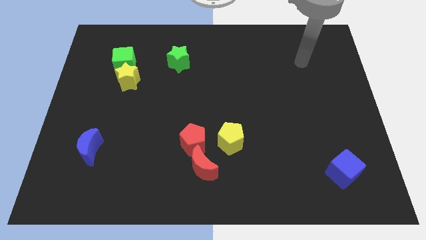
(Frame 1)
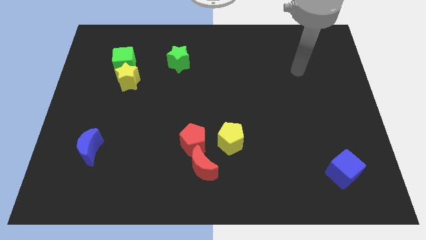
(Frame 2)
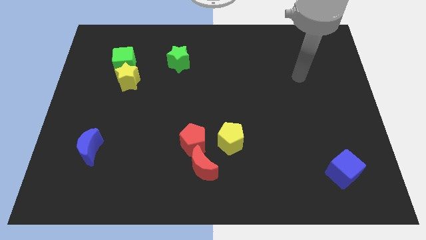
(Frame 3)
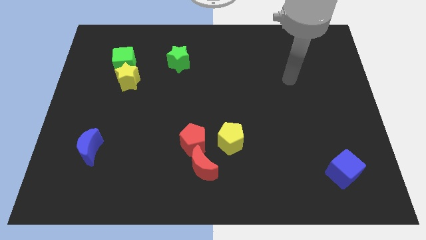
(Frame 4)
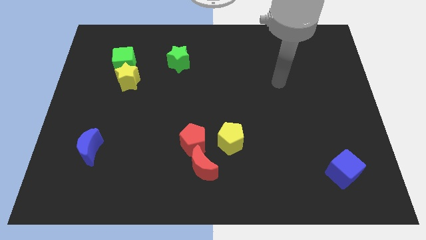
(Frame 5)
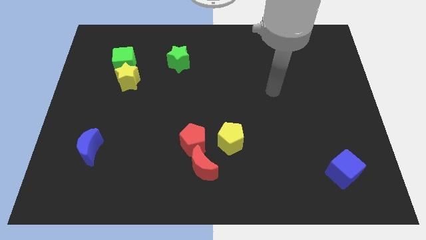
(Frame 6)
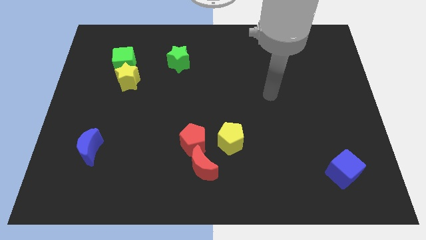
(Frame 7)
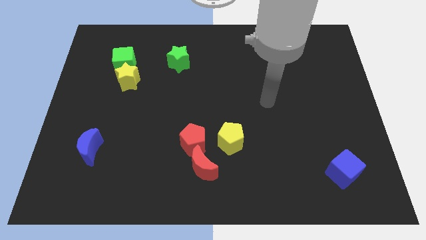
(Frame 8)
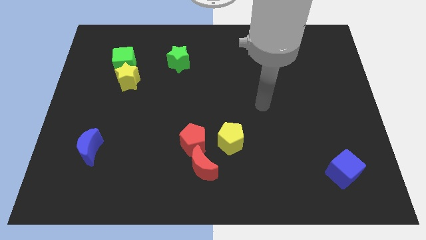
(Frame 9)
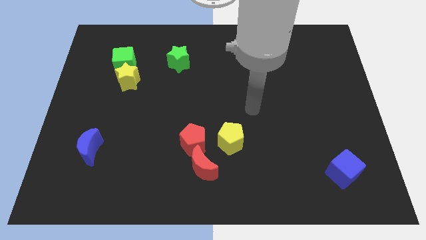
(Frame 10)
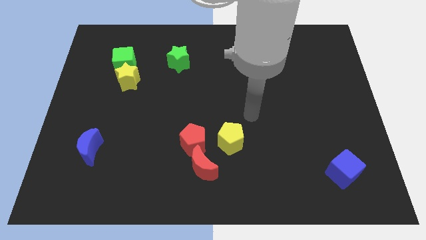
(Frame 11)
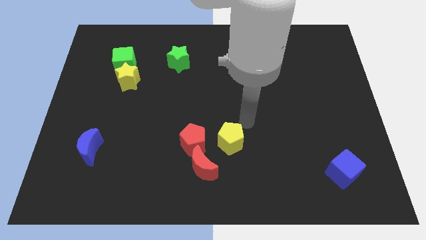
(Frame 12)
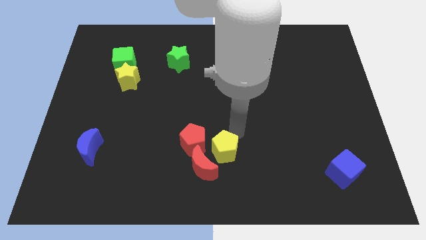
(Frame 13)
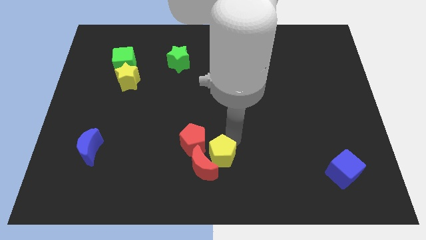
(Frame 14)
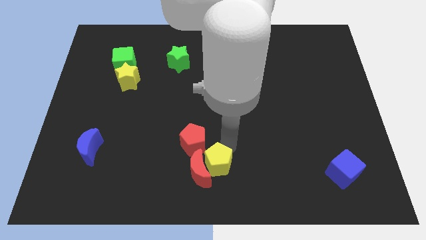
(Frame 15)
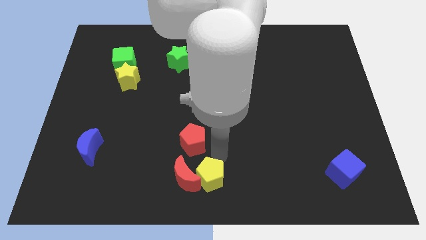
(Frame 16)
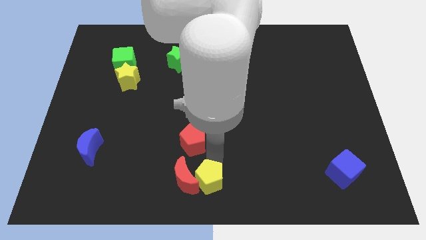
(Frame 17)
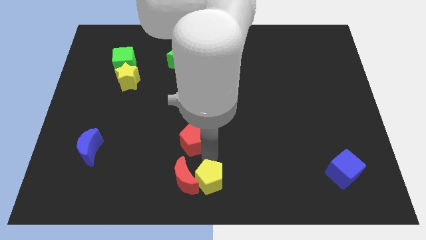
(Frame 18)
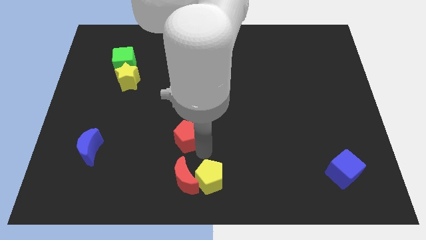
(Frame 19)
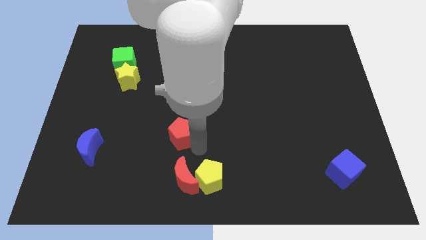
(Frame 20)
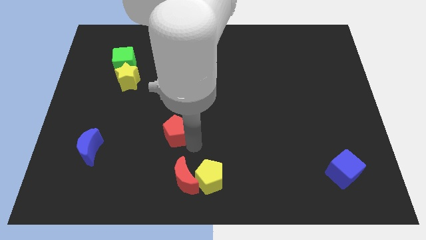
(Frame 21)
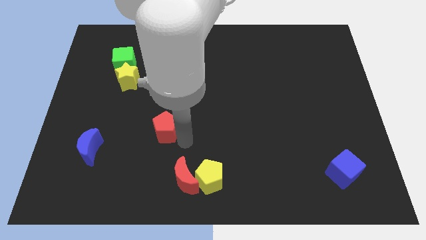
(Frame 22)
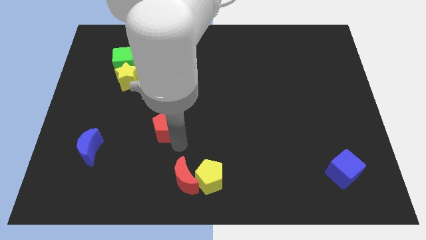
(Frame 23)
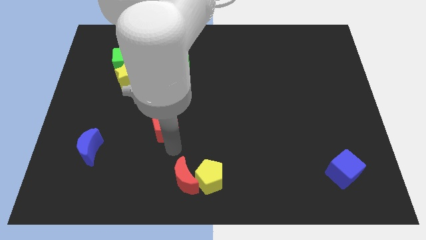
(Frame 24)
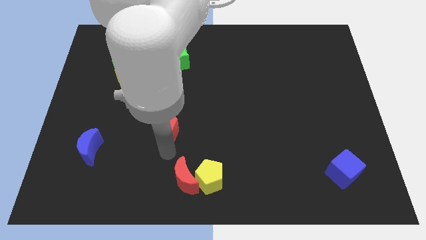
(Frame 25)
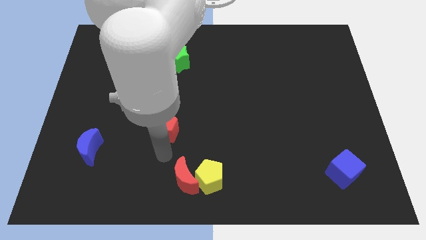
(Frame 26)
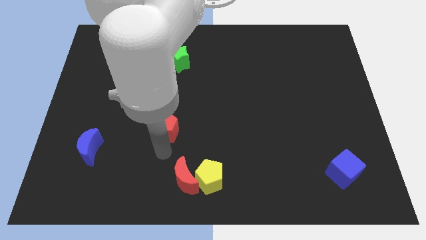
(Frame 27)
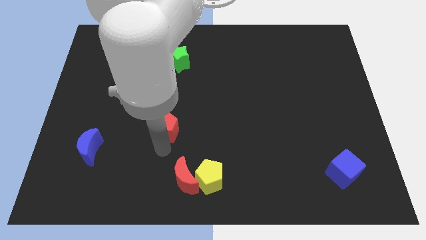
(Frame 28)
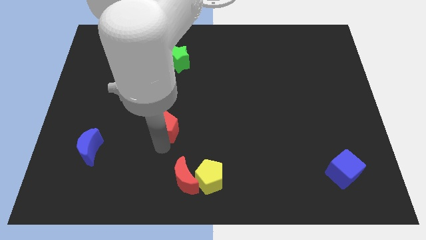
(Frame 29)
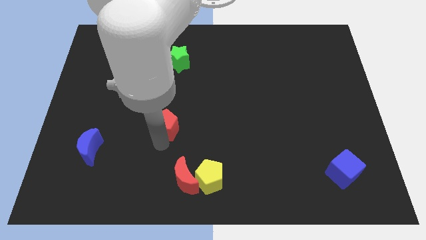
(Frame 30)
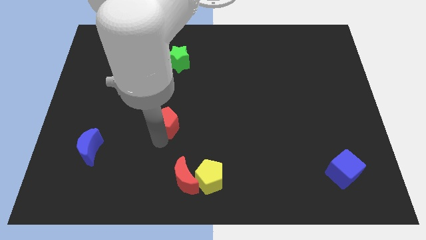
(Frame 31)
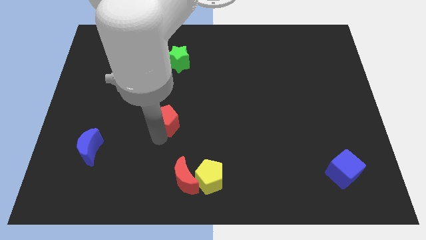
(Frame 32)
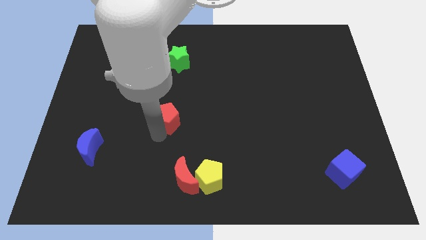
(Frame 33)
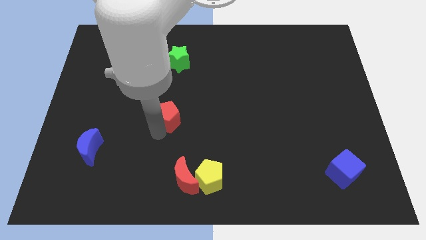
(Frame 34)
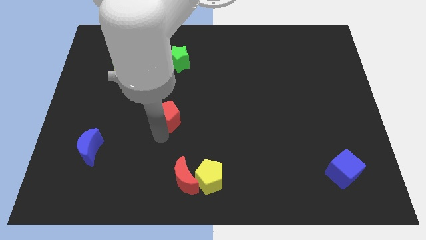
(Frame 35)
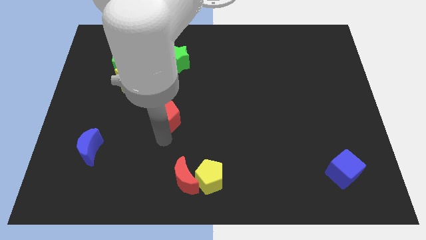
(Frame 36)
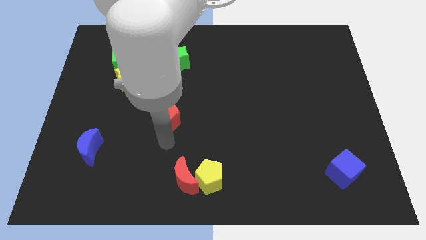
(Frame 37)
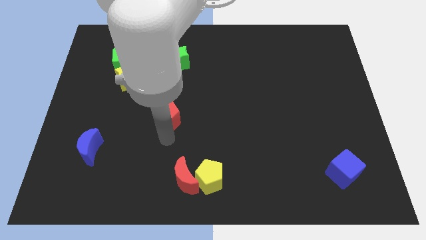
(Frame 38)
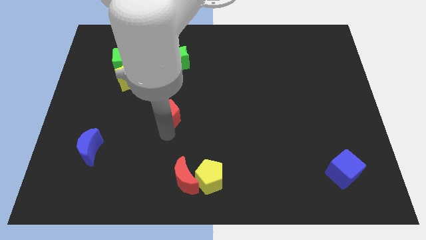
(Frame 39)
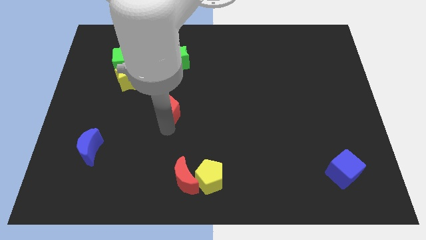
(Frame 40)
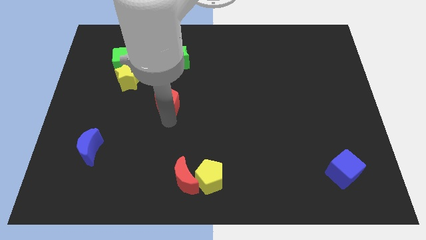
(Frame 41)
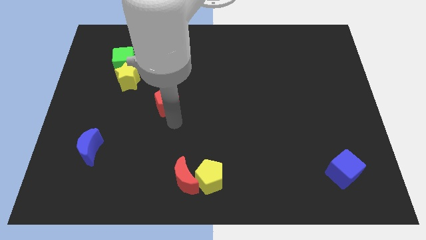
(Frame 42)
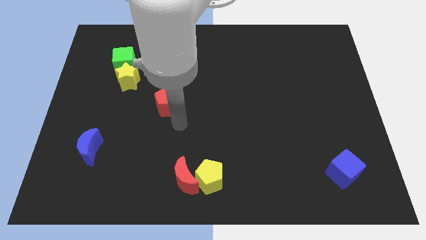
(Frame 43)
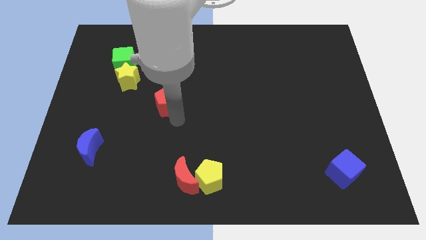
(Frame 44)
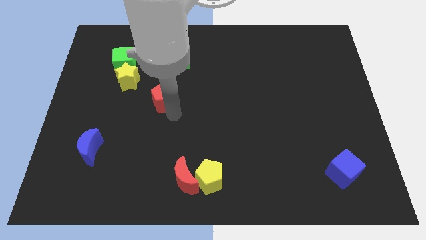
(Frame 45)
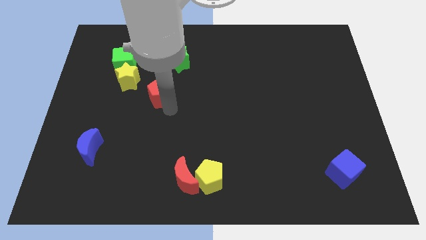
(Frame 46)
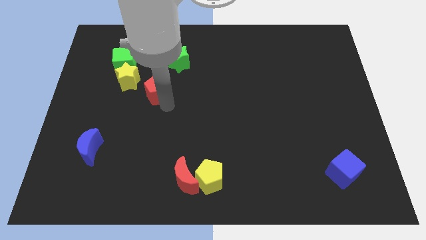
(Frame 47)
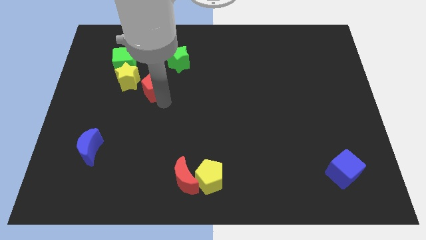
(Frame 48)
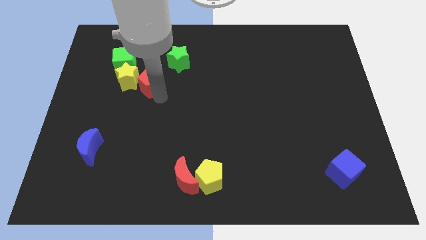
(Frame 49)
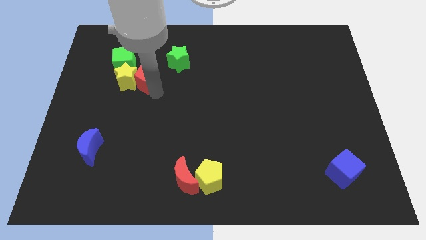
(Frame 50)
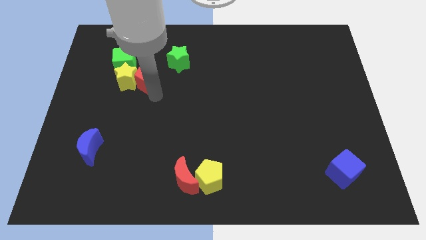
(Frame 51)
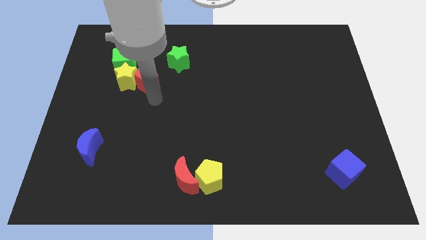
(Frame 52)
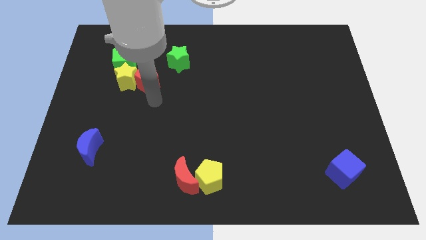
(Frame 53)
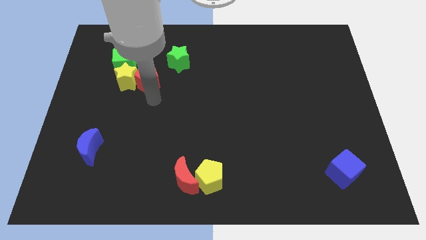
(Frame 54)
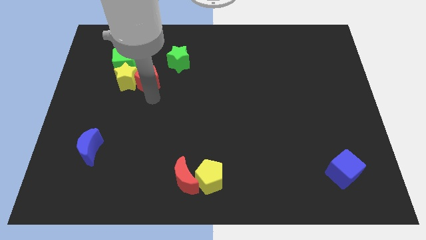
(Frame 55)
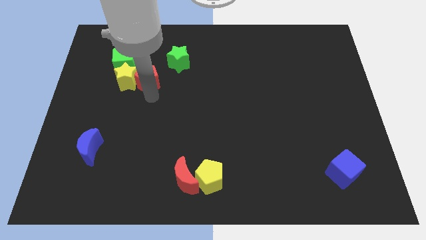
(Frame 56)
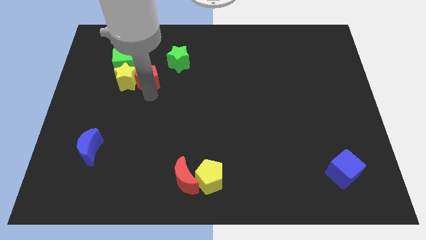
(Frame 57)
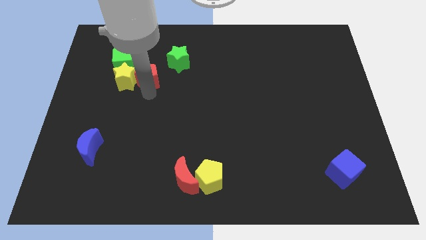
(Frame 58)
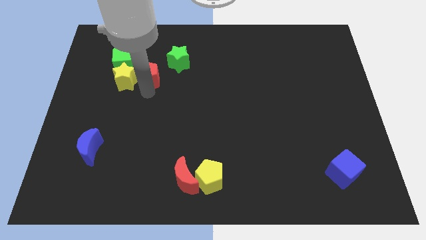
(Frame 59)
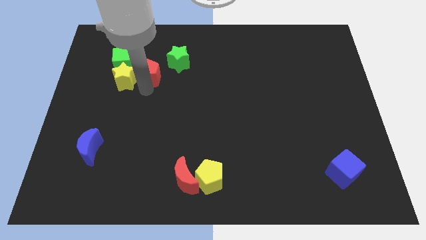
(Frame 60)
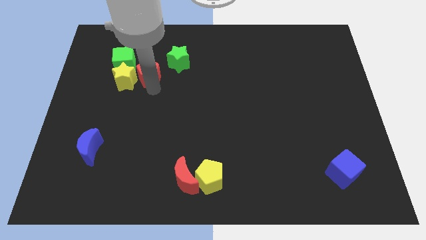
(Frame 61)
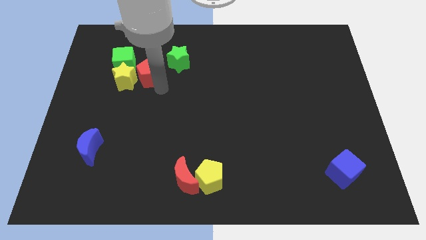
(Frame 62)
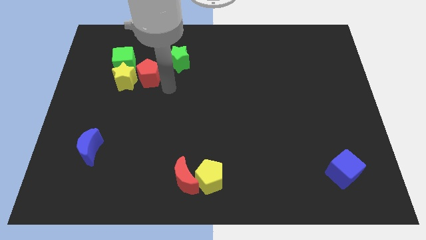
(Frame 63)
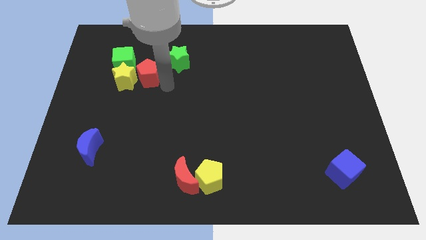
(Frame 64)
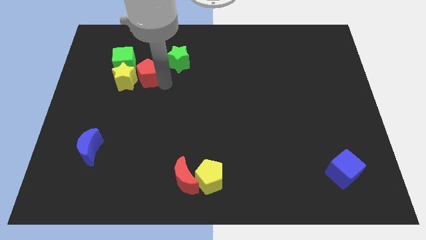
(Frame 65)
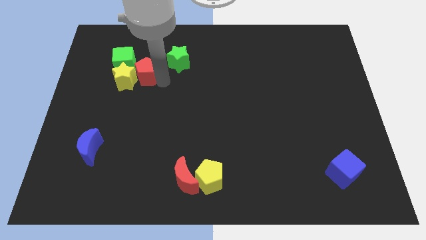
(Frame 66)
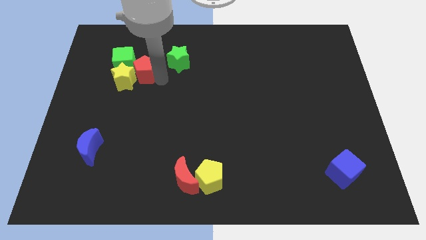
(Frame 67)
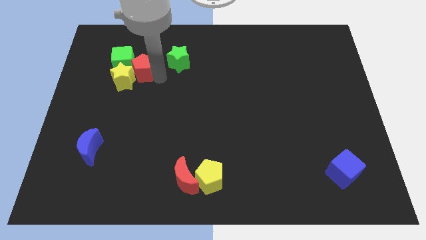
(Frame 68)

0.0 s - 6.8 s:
push the red pentagon towards the green cube

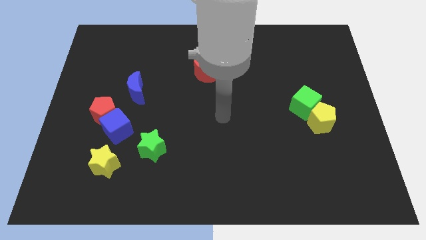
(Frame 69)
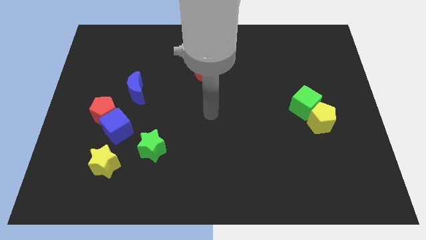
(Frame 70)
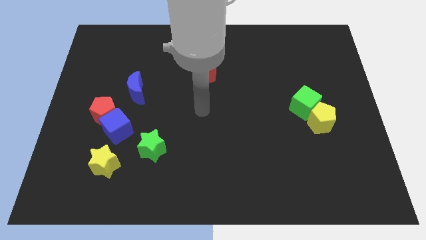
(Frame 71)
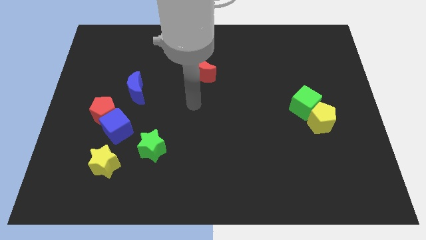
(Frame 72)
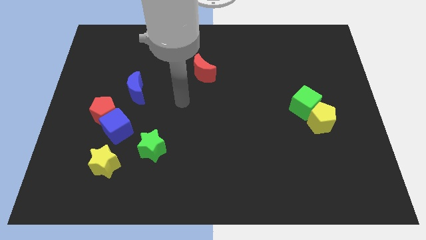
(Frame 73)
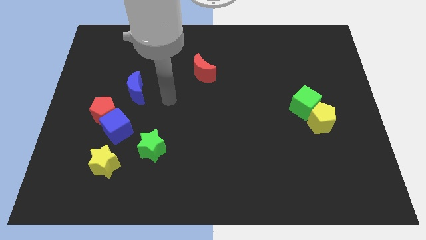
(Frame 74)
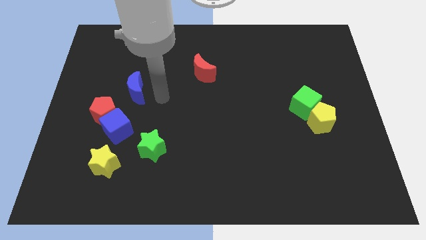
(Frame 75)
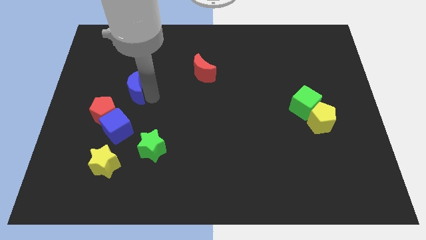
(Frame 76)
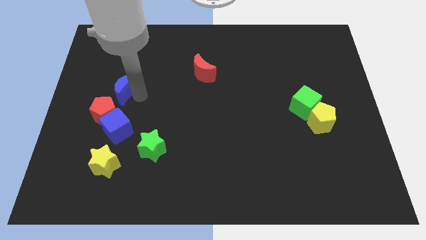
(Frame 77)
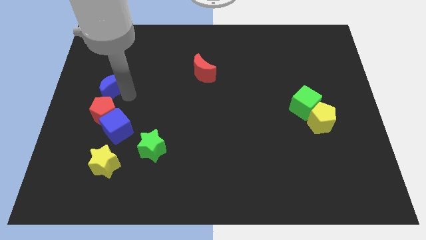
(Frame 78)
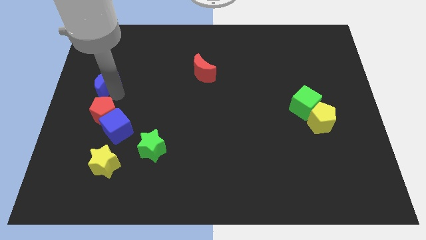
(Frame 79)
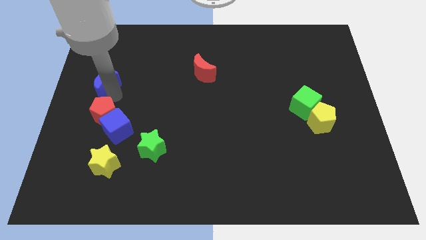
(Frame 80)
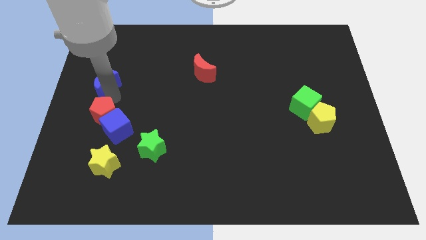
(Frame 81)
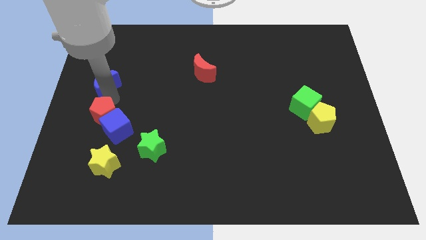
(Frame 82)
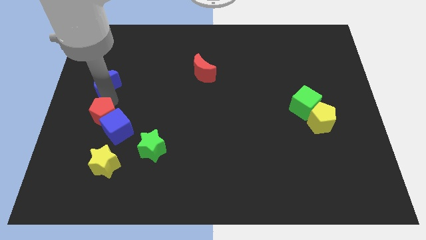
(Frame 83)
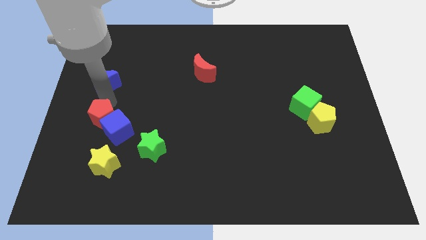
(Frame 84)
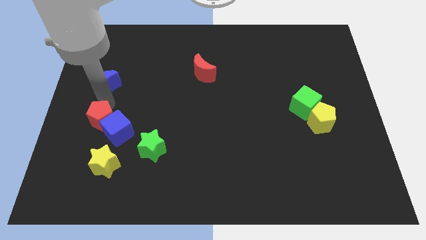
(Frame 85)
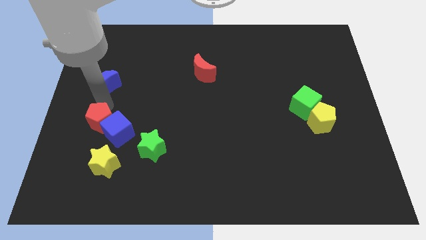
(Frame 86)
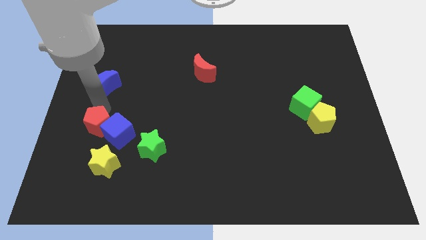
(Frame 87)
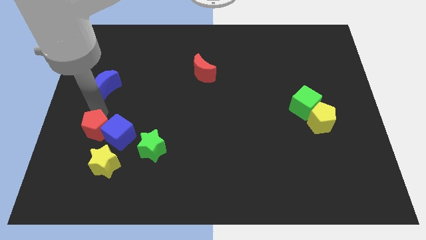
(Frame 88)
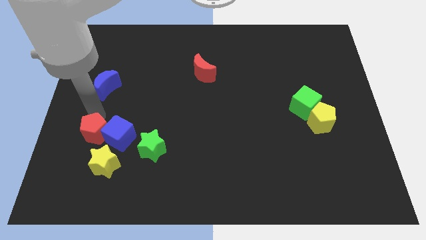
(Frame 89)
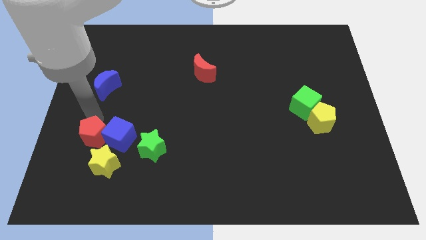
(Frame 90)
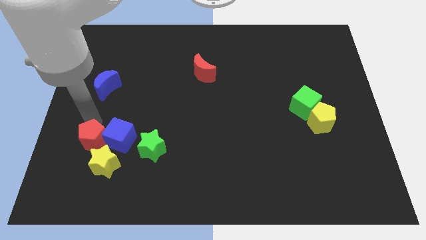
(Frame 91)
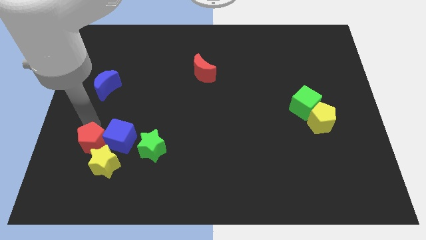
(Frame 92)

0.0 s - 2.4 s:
slide the red pentagon next to the yellow star
